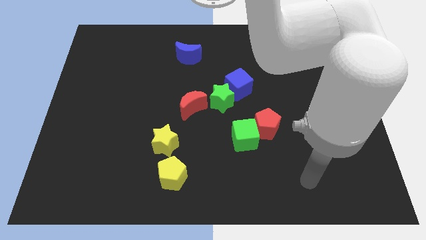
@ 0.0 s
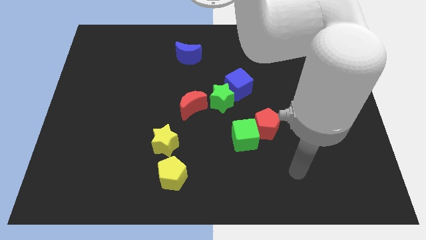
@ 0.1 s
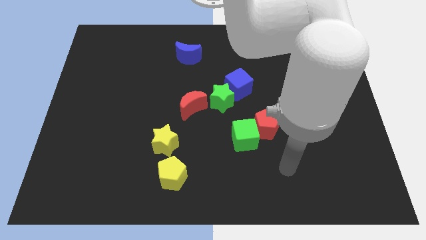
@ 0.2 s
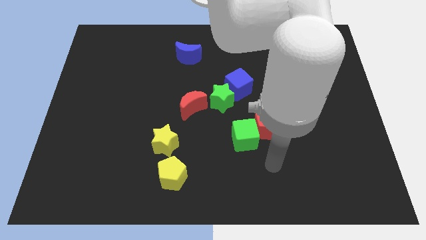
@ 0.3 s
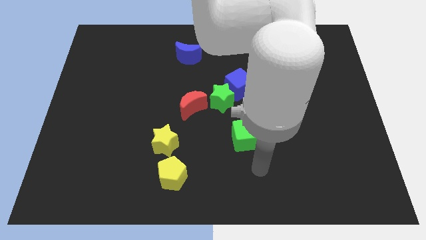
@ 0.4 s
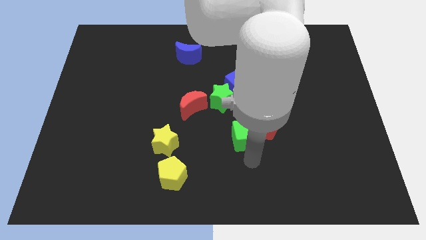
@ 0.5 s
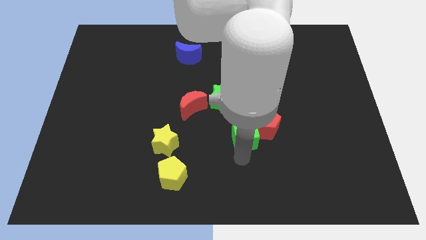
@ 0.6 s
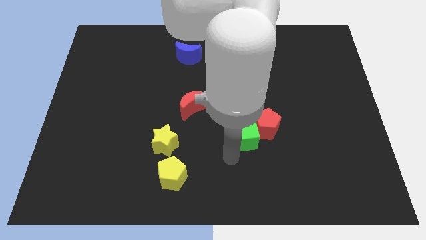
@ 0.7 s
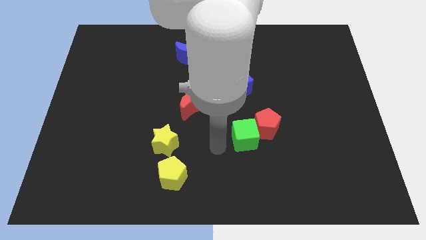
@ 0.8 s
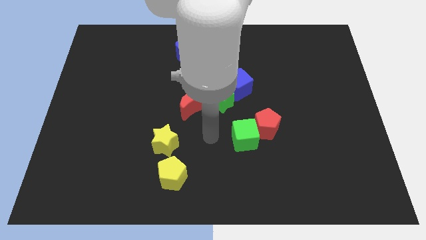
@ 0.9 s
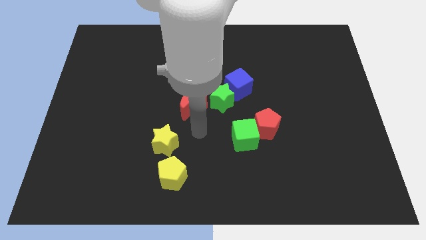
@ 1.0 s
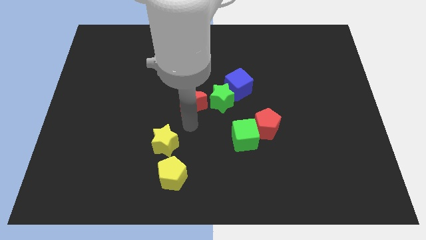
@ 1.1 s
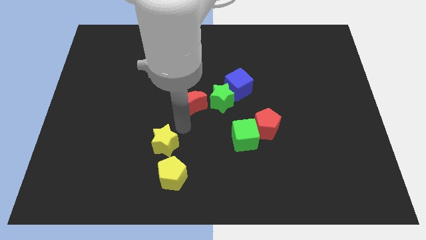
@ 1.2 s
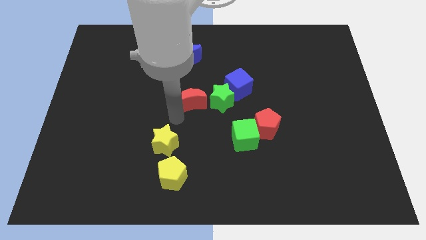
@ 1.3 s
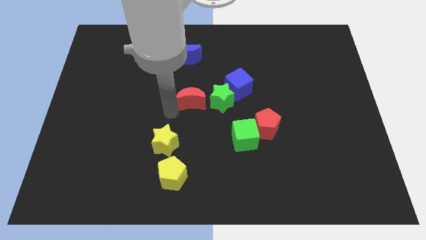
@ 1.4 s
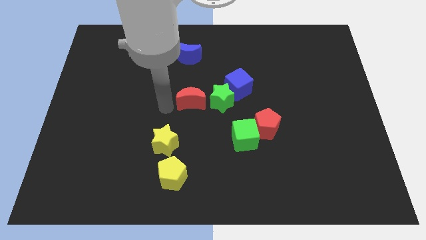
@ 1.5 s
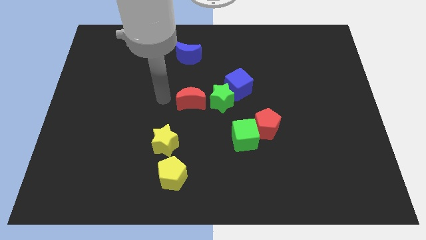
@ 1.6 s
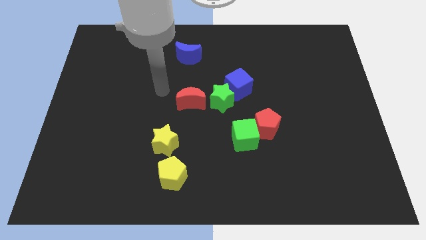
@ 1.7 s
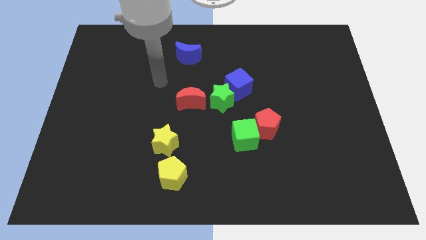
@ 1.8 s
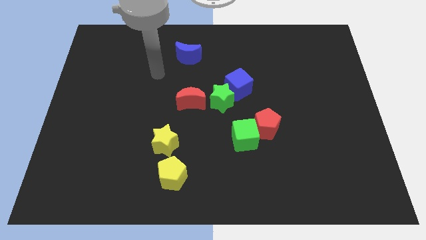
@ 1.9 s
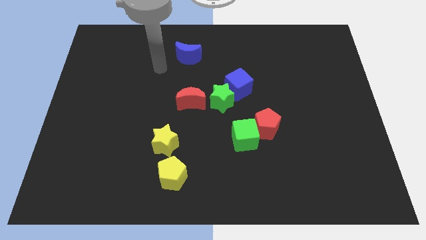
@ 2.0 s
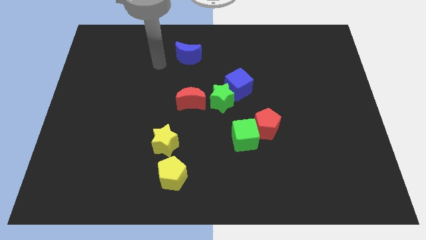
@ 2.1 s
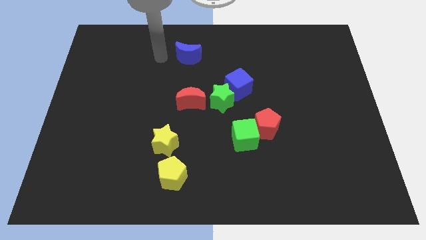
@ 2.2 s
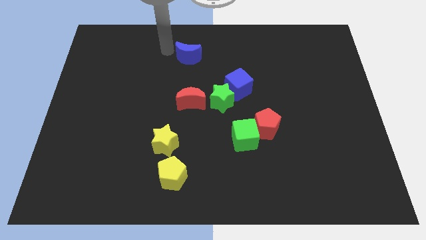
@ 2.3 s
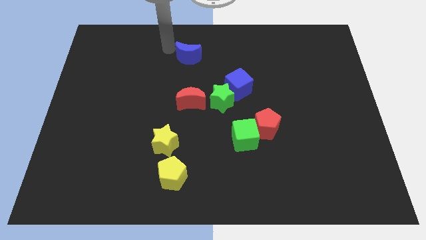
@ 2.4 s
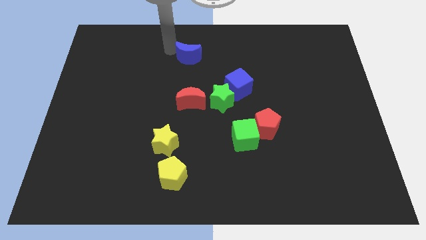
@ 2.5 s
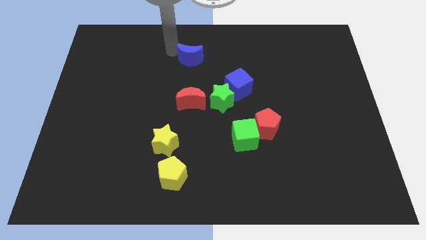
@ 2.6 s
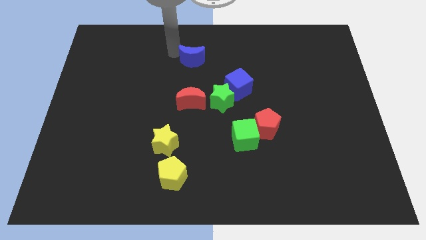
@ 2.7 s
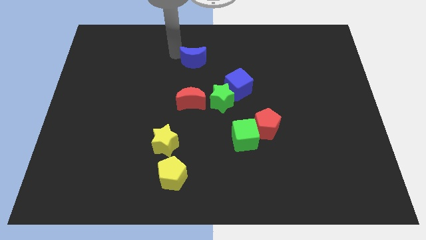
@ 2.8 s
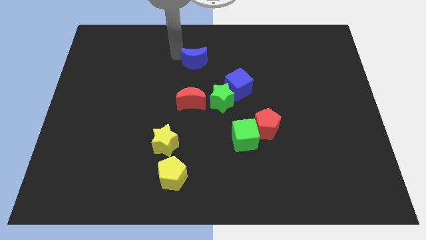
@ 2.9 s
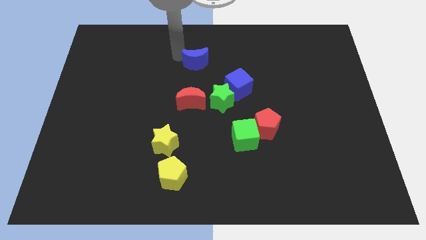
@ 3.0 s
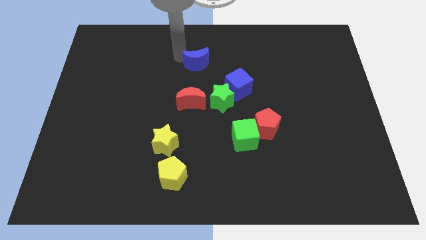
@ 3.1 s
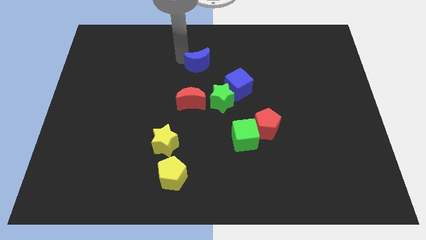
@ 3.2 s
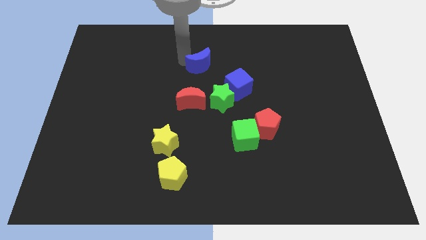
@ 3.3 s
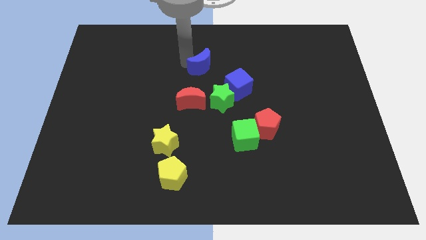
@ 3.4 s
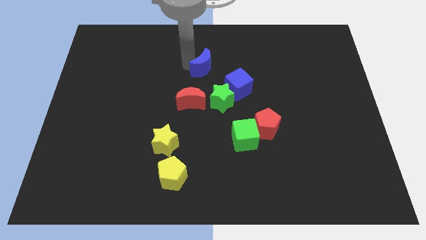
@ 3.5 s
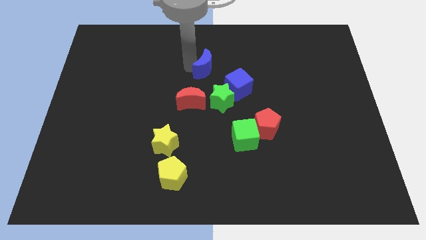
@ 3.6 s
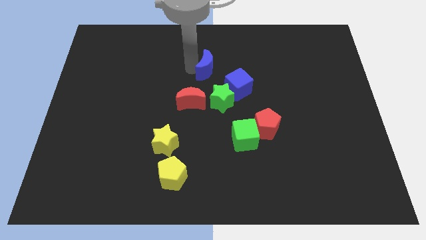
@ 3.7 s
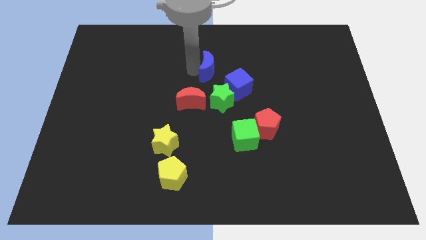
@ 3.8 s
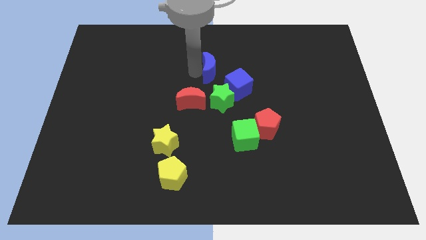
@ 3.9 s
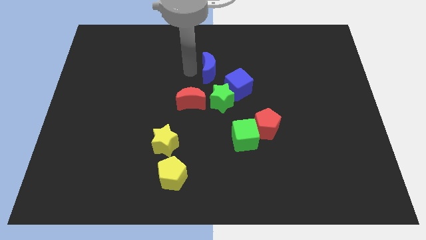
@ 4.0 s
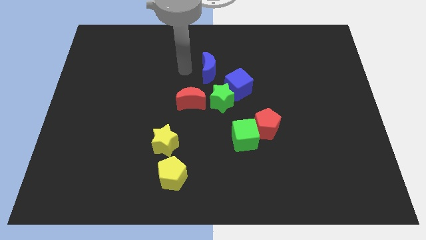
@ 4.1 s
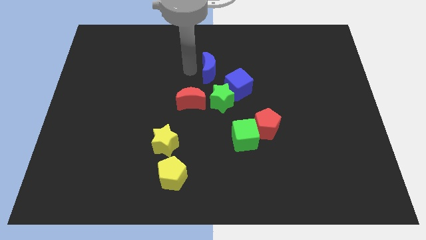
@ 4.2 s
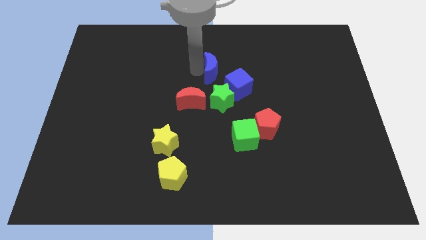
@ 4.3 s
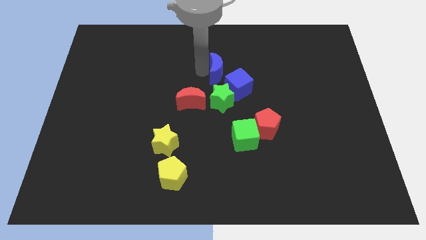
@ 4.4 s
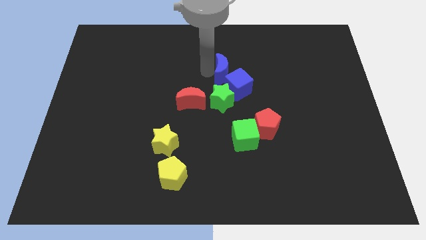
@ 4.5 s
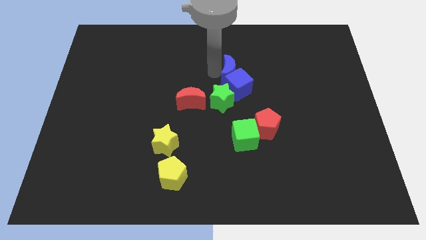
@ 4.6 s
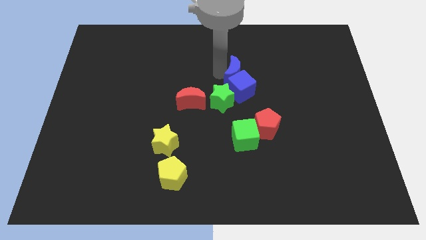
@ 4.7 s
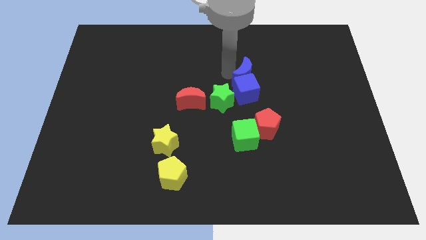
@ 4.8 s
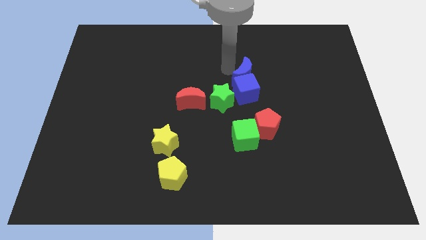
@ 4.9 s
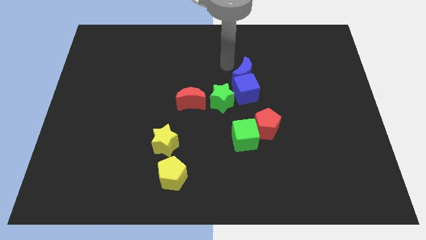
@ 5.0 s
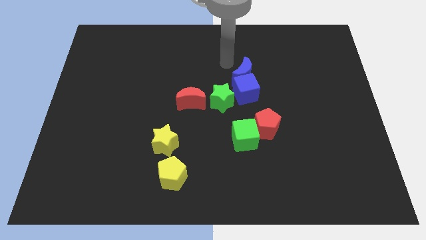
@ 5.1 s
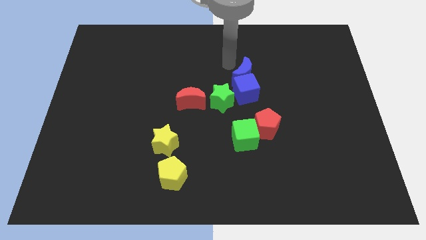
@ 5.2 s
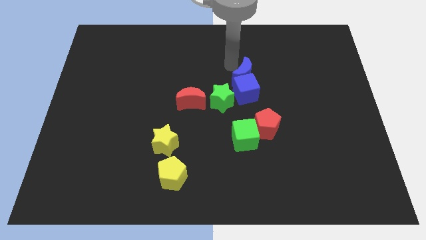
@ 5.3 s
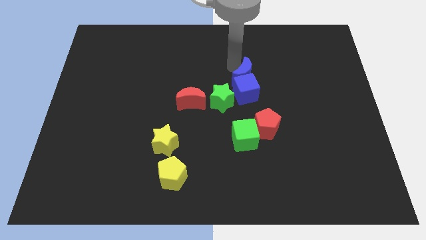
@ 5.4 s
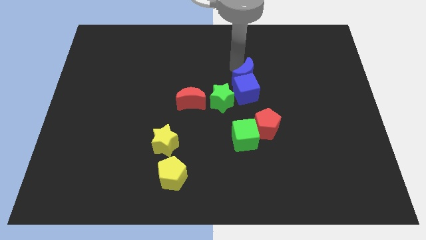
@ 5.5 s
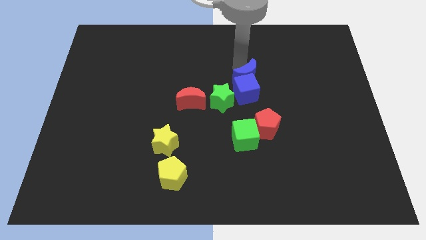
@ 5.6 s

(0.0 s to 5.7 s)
move the blue moon to the top side of the red pentagon

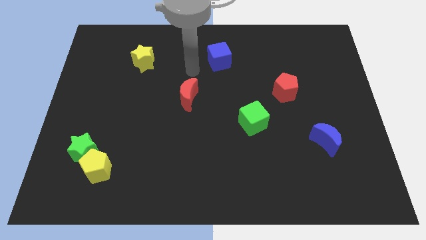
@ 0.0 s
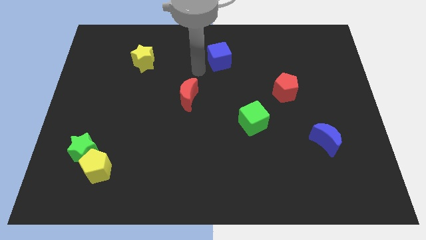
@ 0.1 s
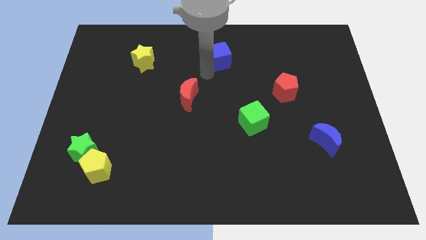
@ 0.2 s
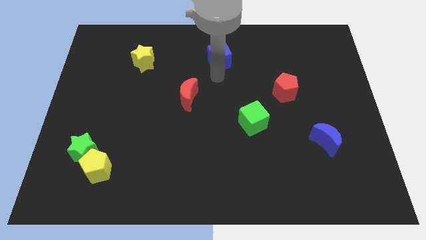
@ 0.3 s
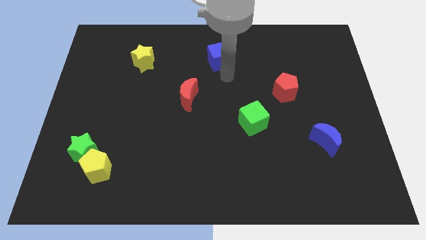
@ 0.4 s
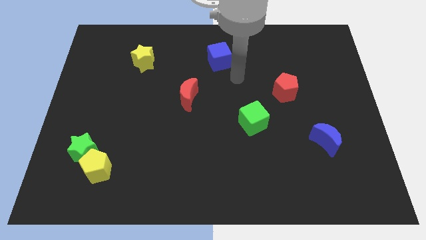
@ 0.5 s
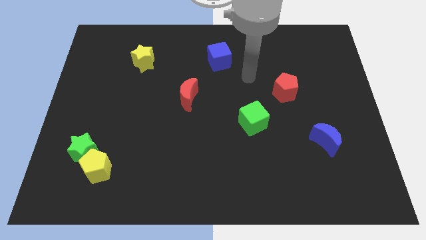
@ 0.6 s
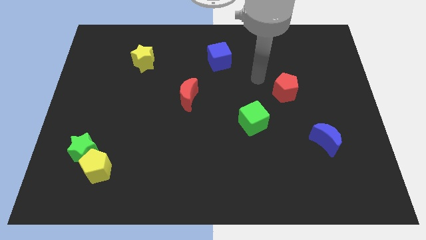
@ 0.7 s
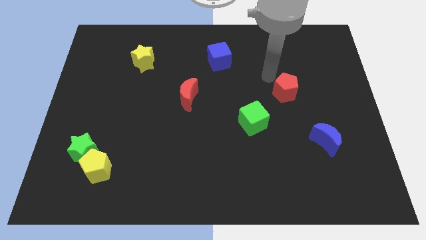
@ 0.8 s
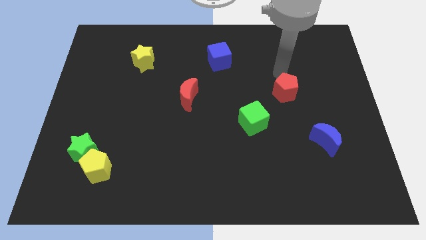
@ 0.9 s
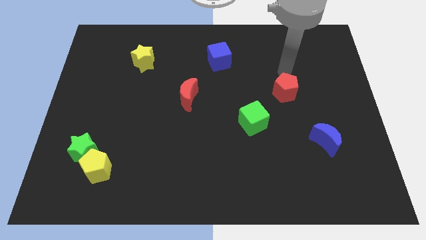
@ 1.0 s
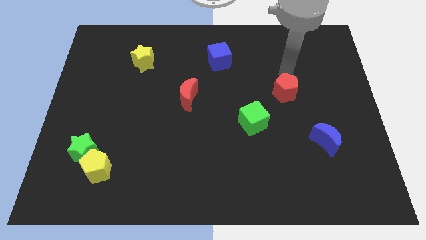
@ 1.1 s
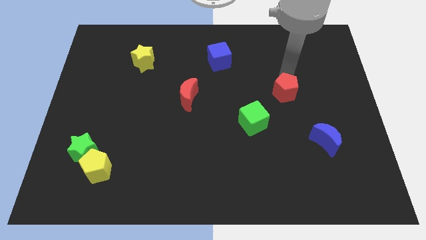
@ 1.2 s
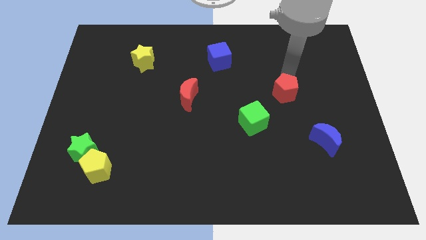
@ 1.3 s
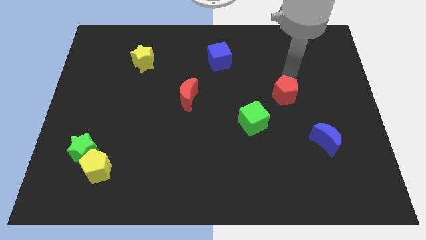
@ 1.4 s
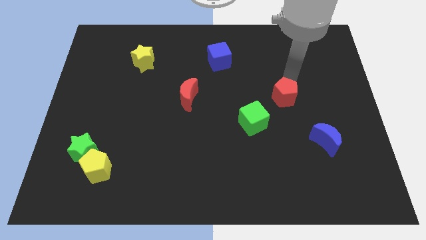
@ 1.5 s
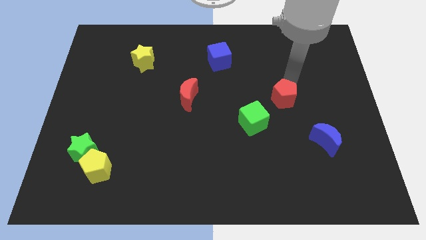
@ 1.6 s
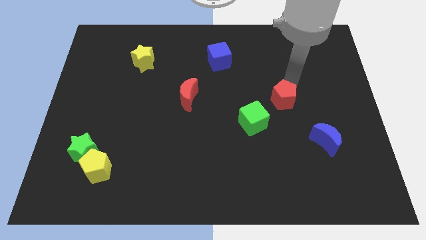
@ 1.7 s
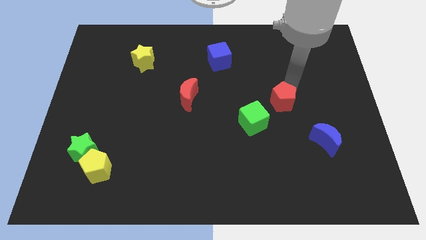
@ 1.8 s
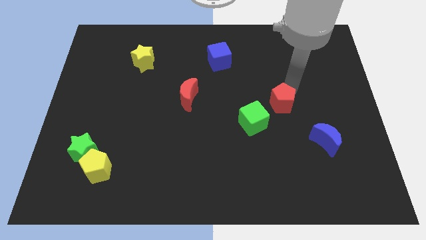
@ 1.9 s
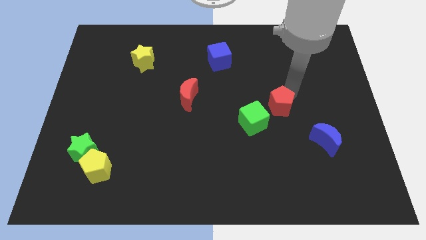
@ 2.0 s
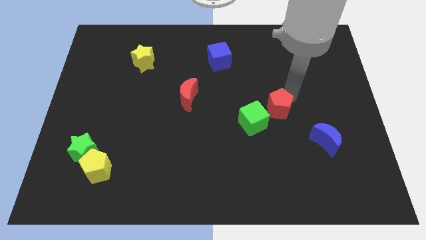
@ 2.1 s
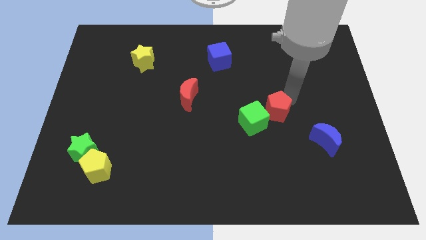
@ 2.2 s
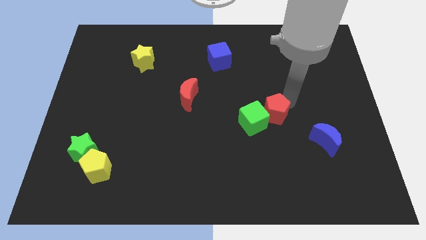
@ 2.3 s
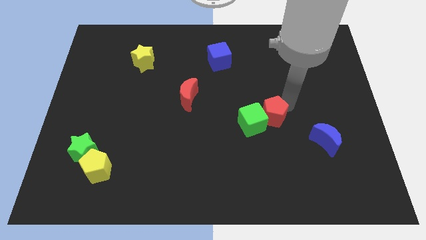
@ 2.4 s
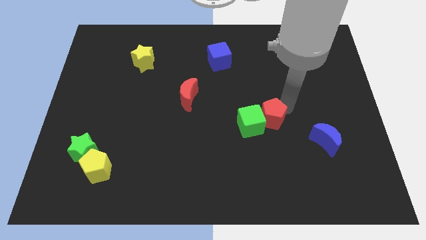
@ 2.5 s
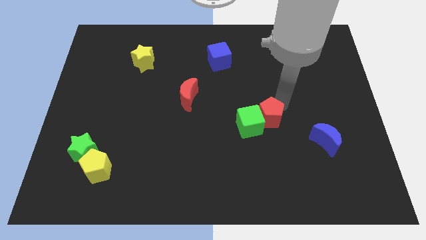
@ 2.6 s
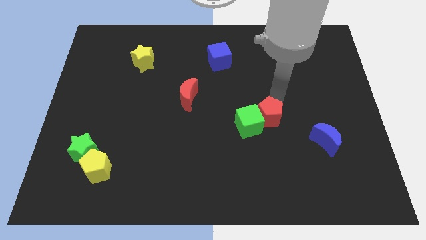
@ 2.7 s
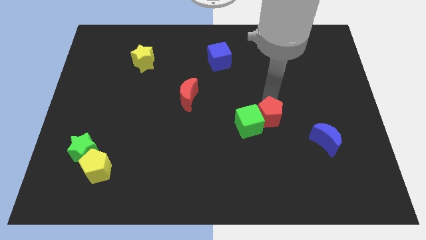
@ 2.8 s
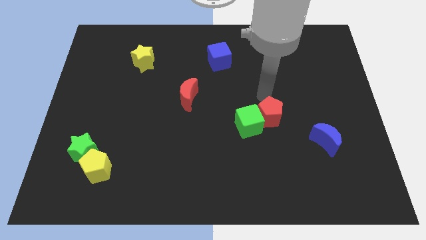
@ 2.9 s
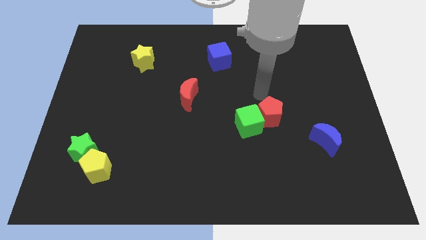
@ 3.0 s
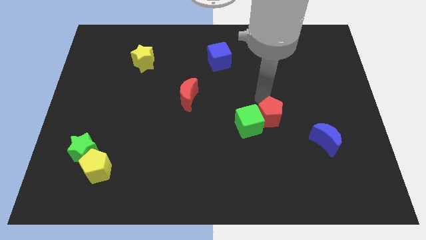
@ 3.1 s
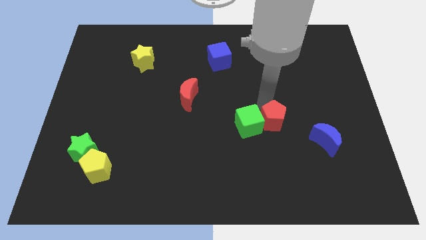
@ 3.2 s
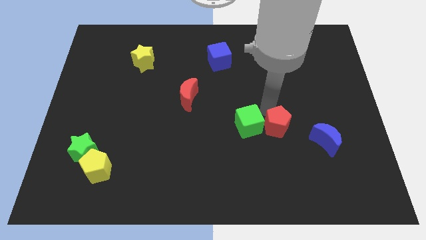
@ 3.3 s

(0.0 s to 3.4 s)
put the red pentagon to the left side of the blue moon
